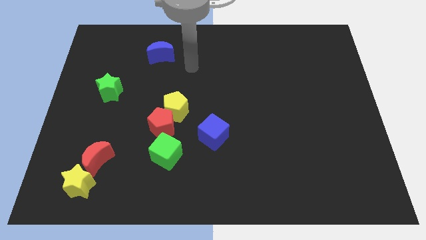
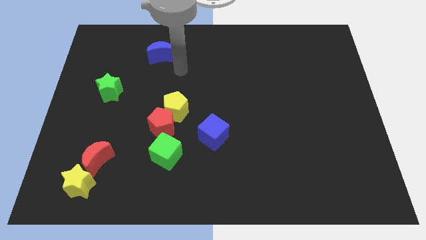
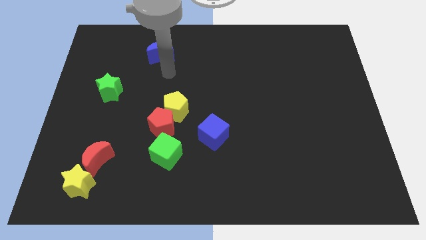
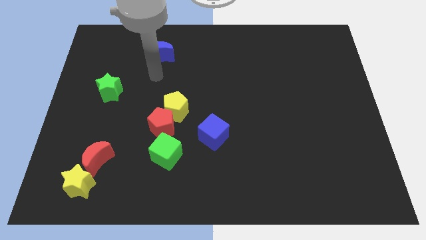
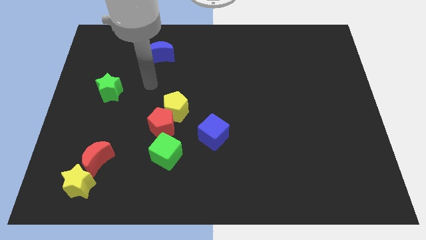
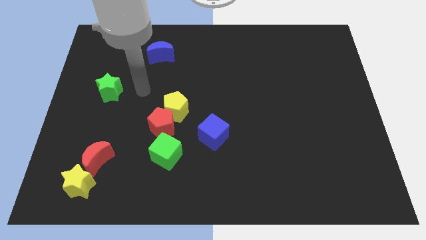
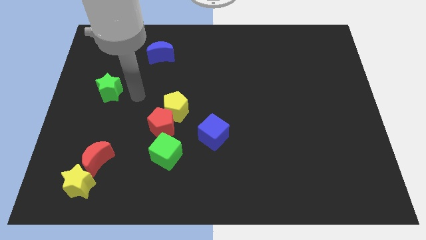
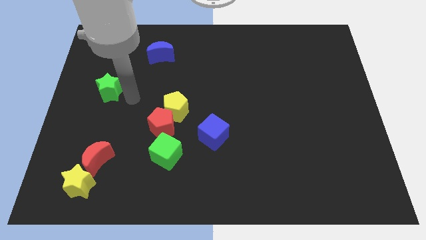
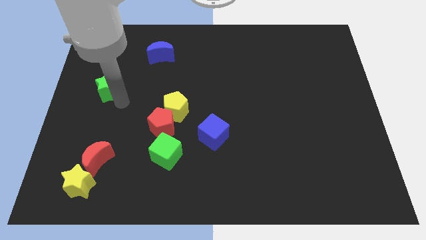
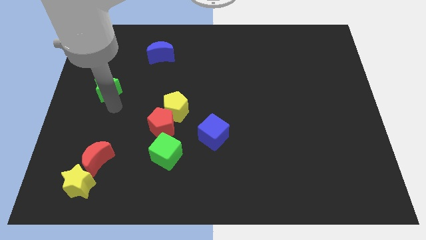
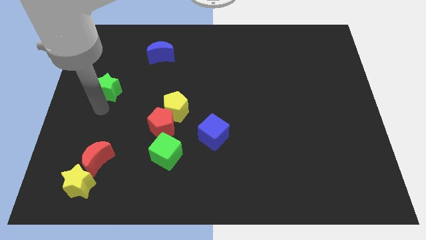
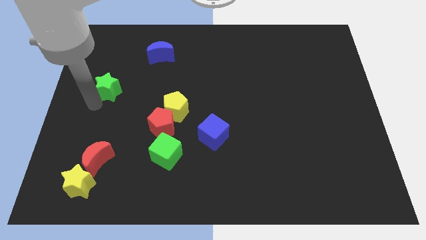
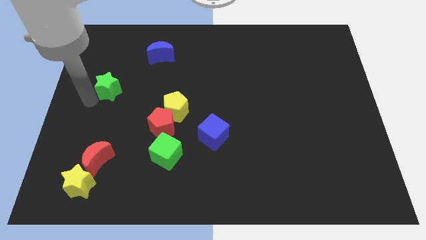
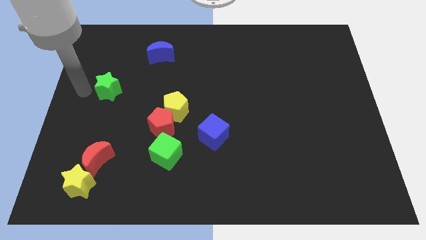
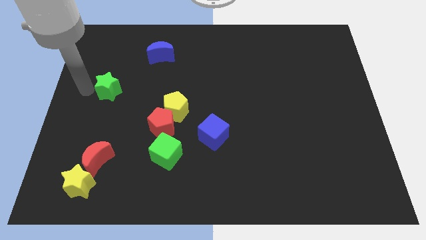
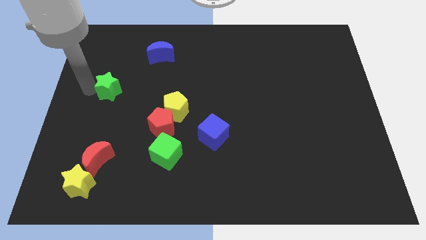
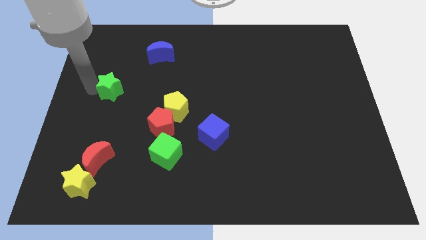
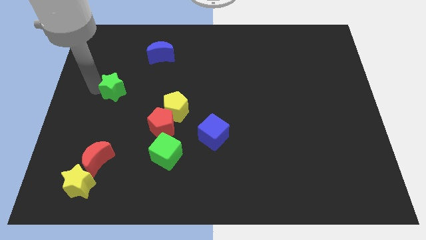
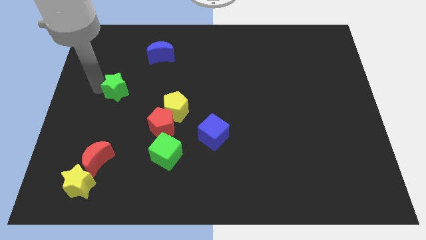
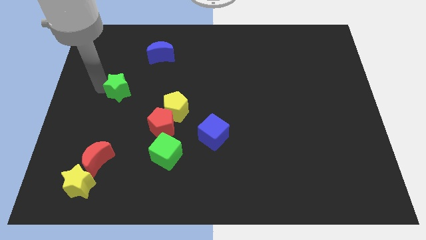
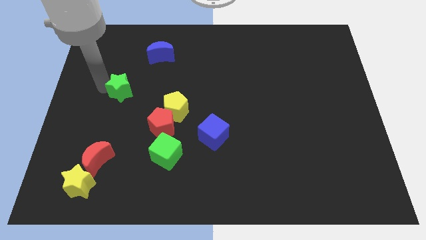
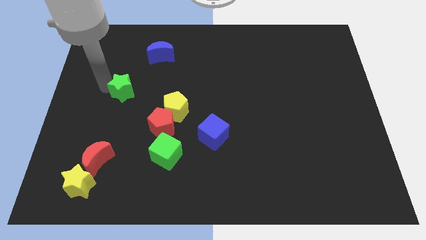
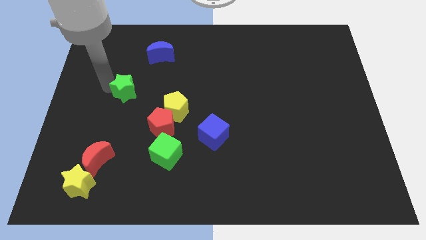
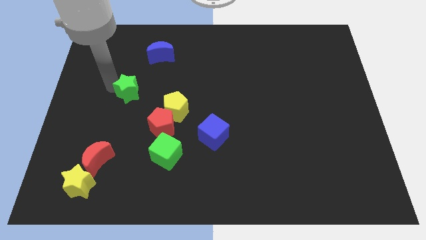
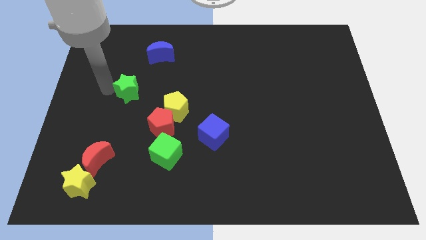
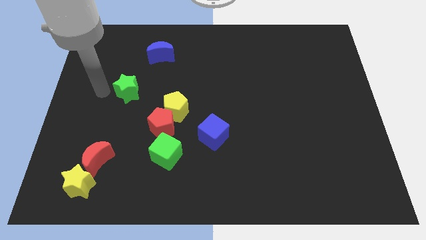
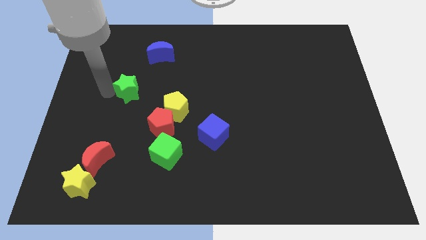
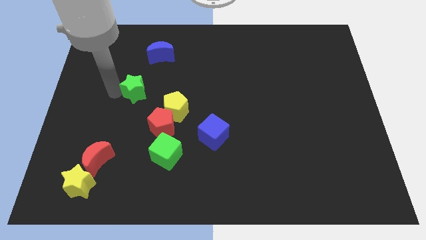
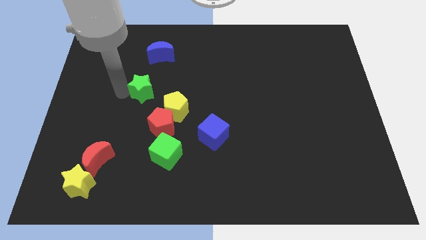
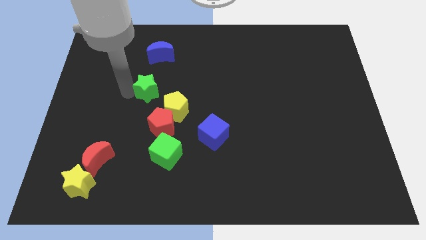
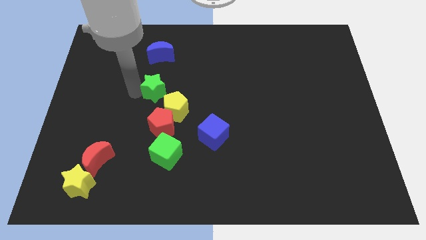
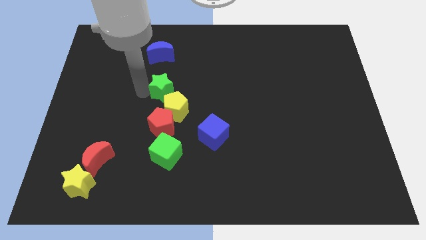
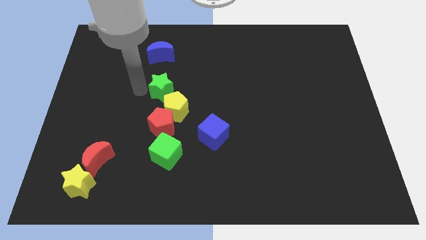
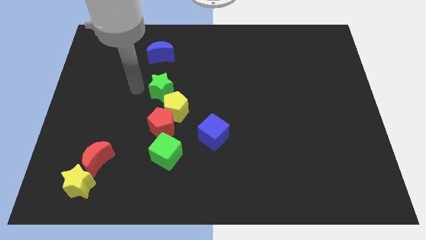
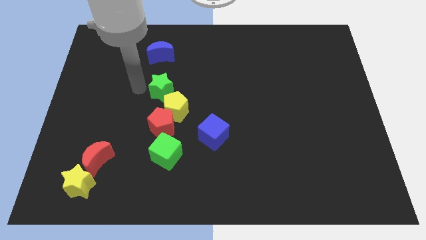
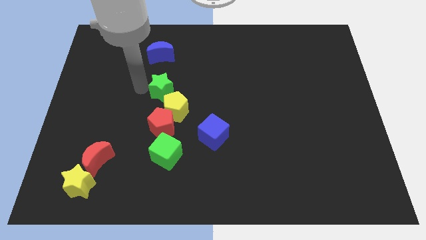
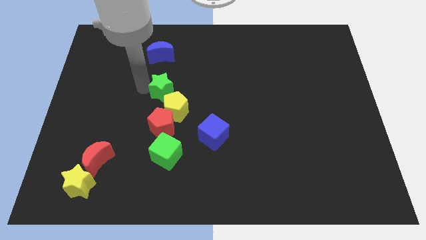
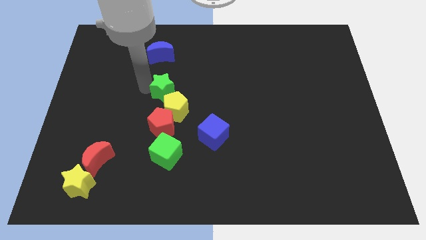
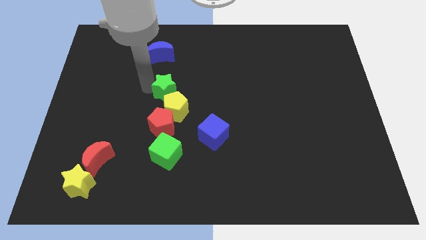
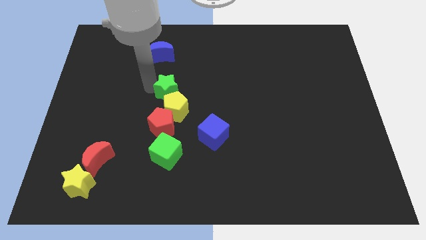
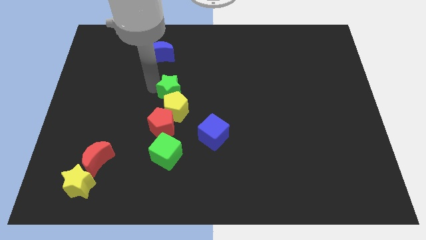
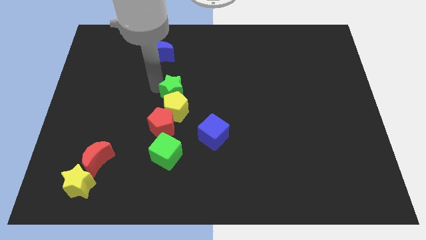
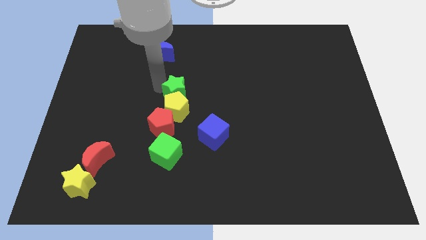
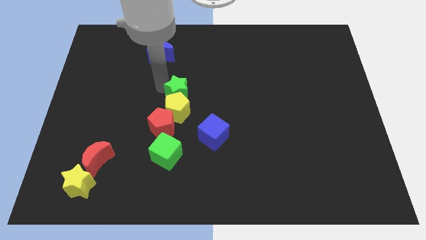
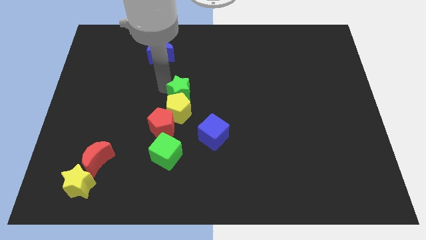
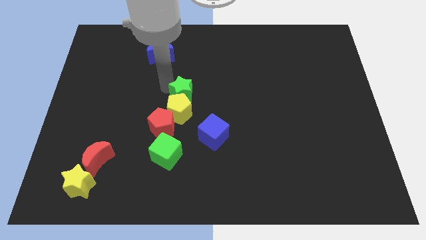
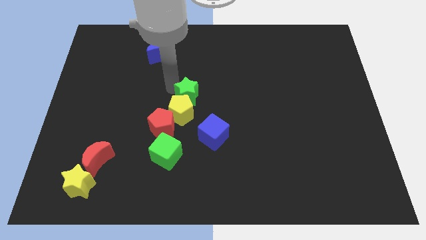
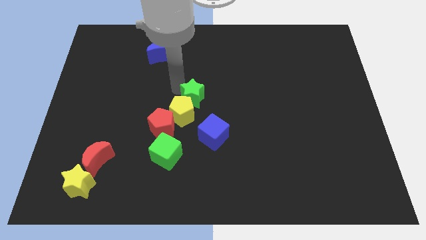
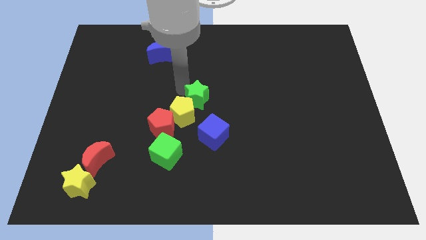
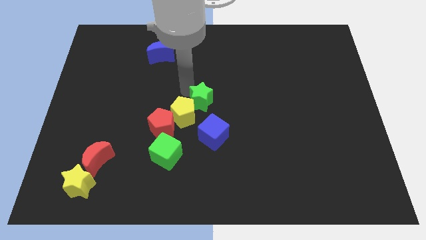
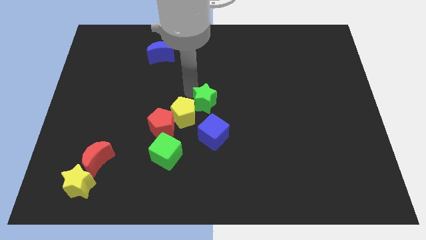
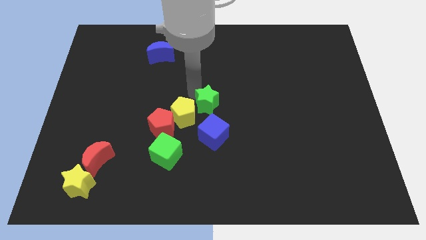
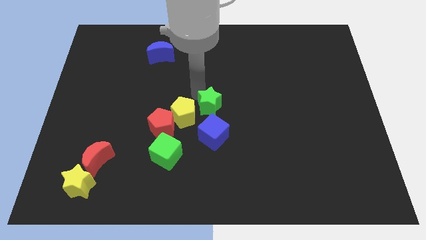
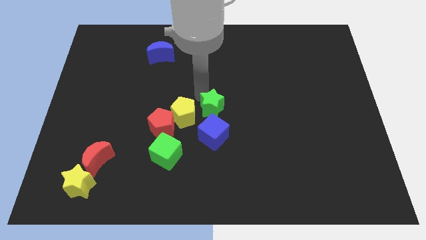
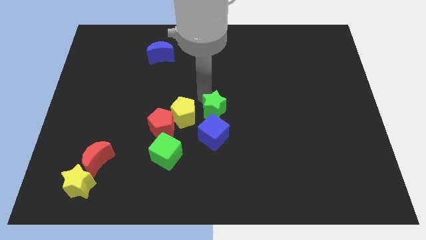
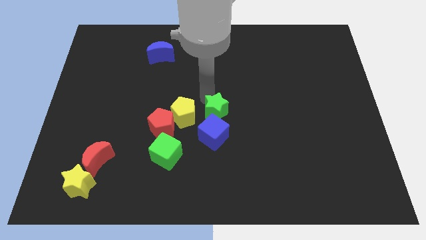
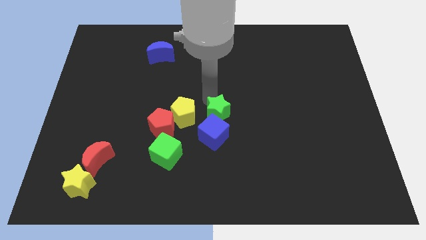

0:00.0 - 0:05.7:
push the green star towards the blue cube

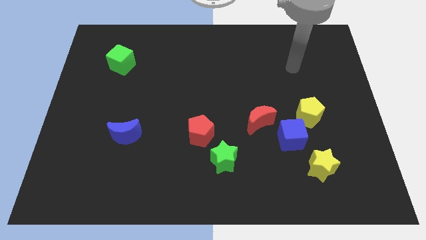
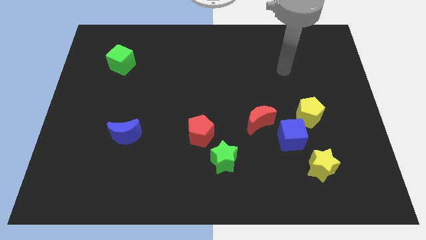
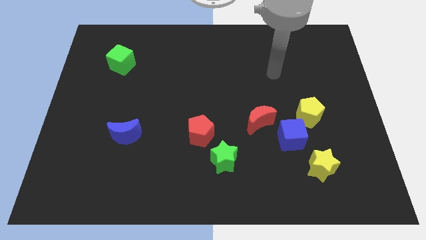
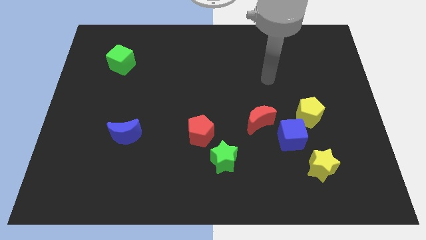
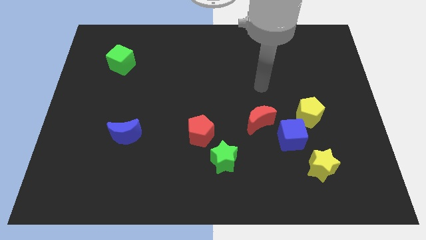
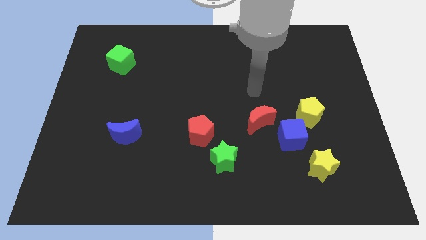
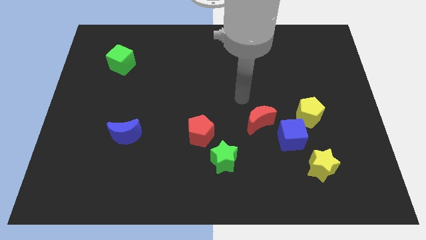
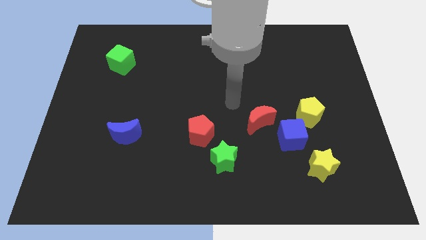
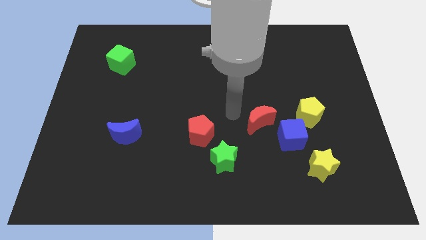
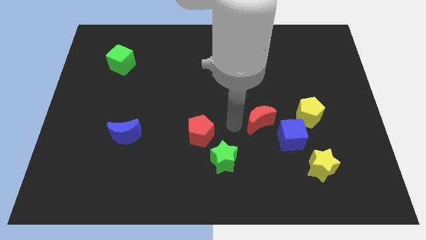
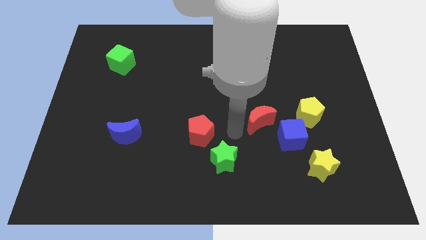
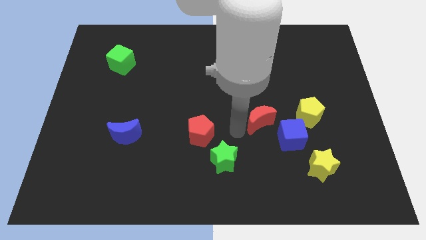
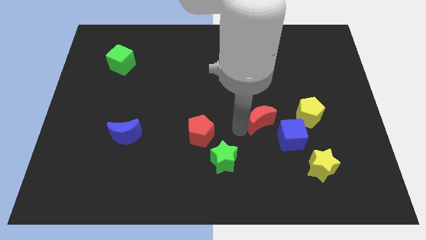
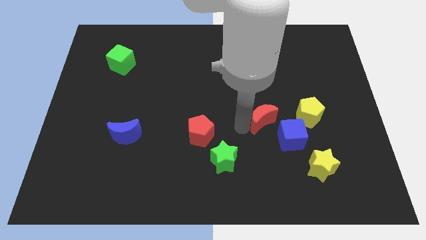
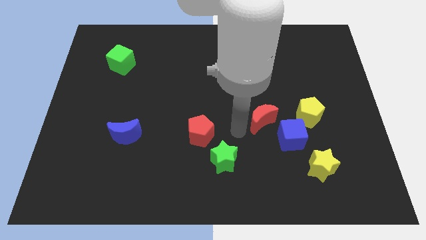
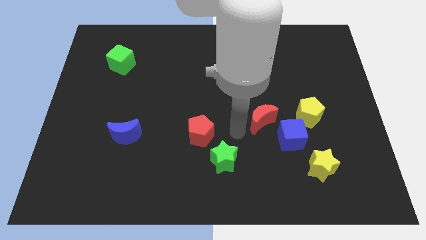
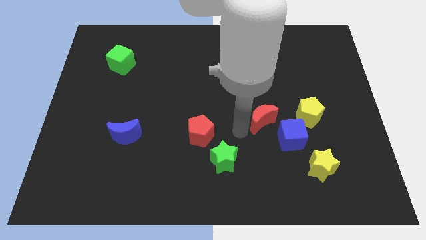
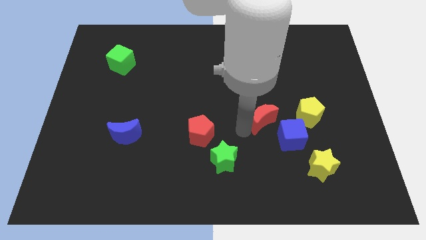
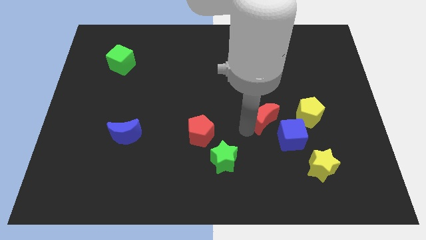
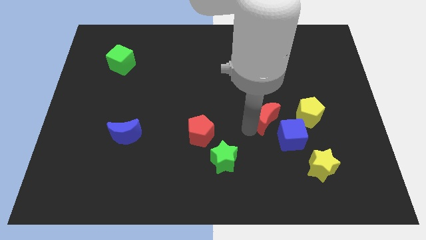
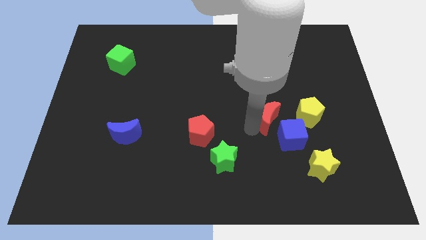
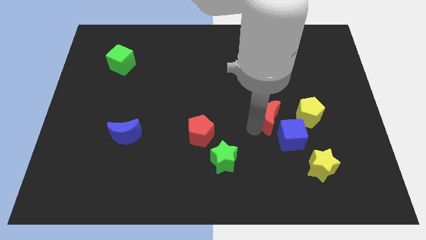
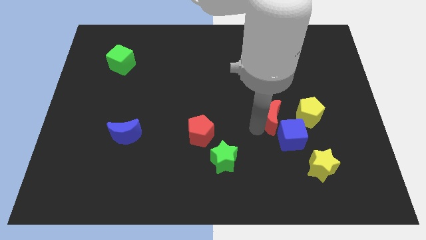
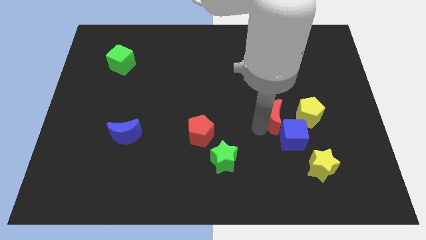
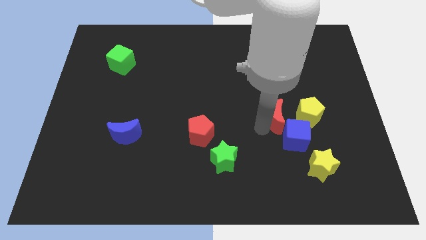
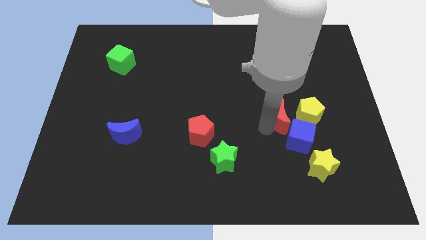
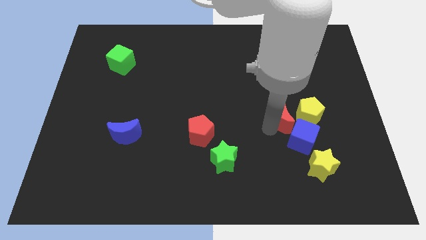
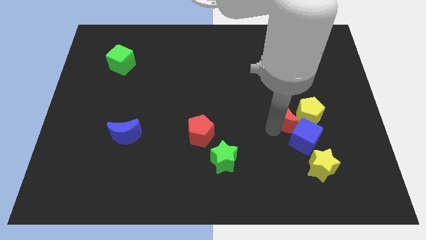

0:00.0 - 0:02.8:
slide the red moon next to the yellow pentagon
